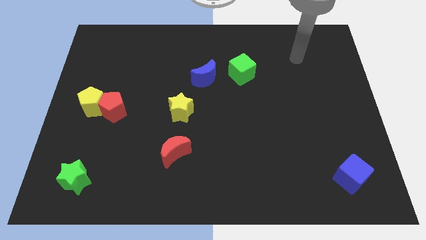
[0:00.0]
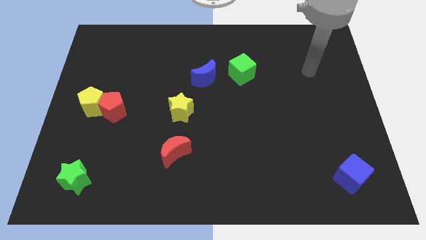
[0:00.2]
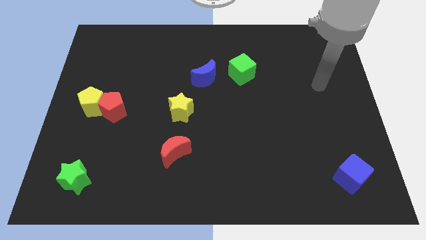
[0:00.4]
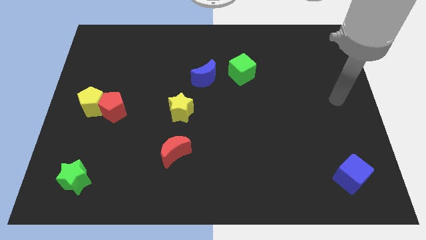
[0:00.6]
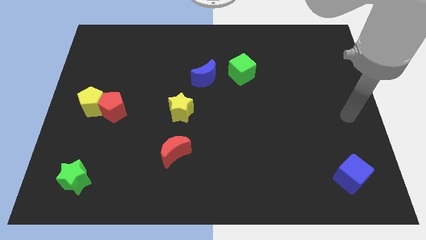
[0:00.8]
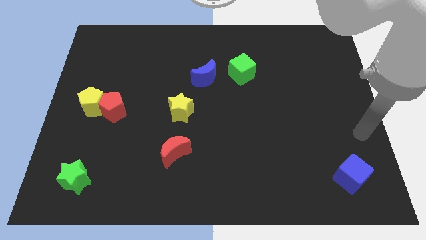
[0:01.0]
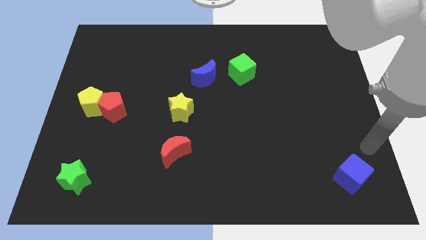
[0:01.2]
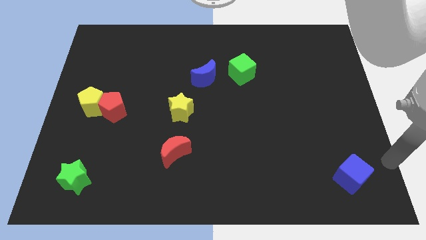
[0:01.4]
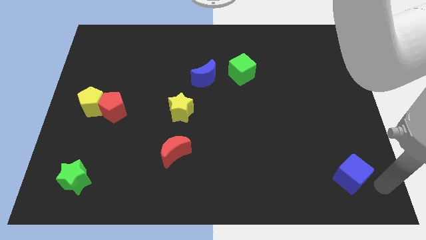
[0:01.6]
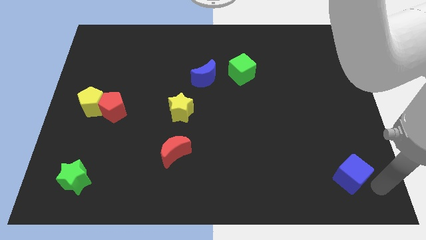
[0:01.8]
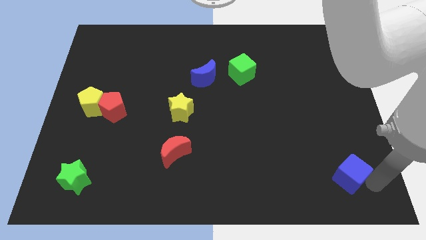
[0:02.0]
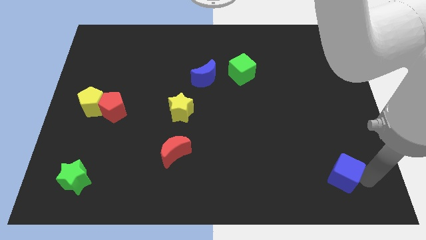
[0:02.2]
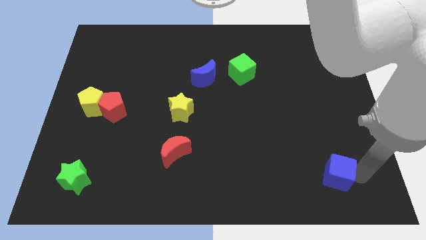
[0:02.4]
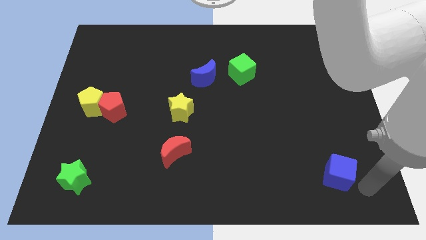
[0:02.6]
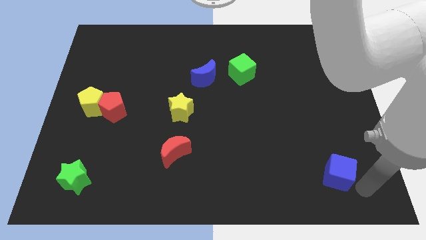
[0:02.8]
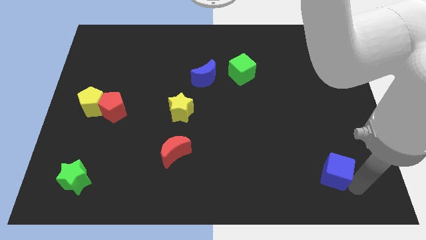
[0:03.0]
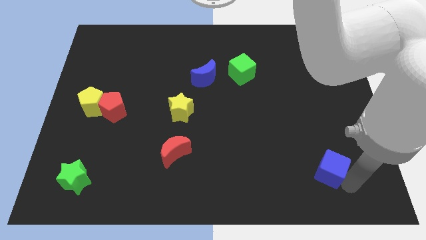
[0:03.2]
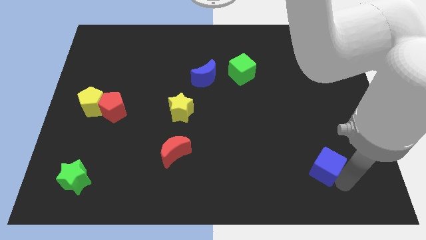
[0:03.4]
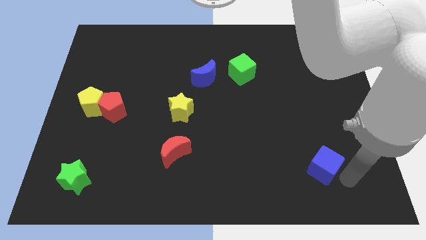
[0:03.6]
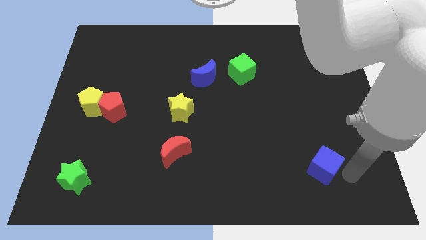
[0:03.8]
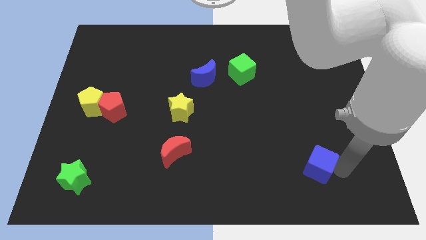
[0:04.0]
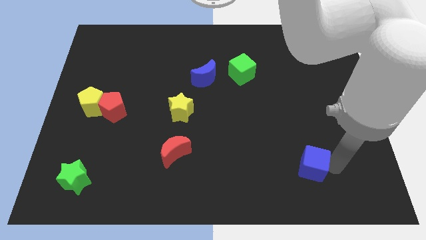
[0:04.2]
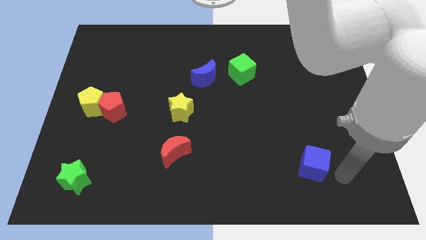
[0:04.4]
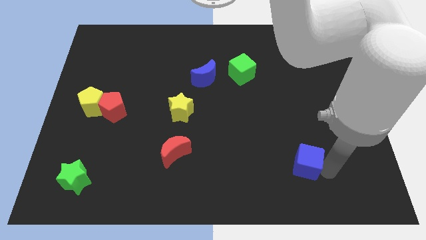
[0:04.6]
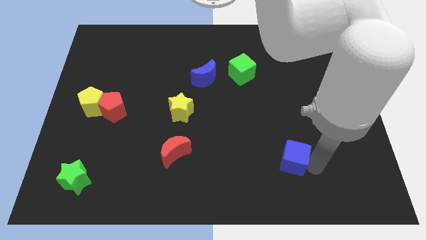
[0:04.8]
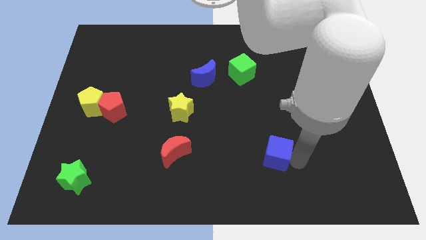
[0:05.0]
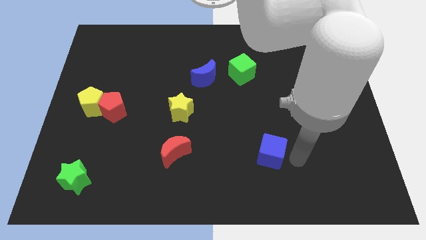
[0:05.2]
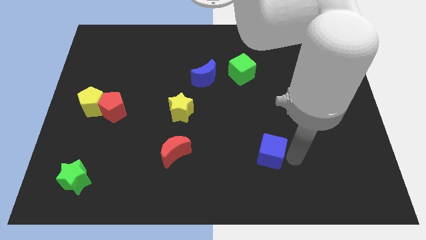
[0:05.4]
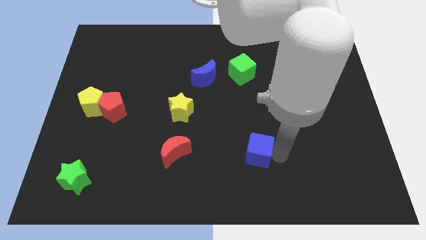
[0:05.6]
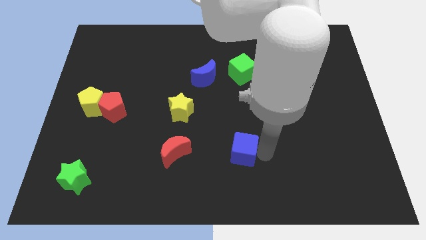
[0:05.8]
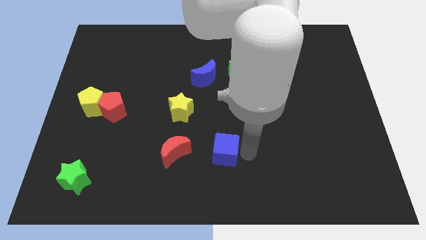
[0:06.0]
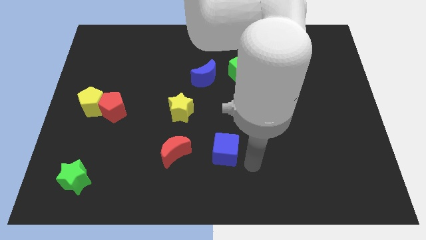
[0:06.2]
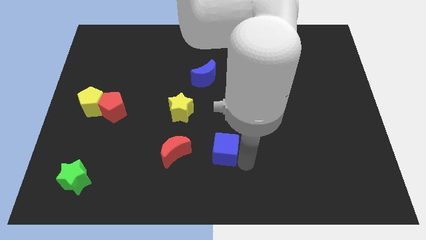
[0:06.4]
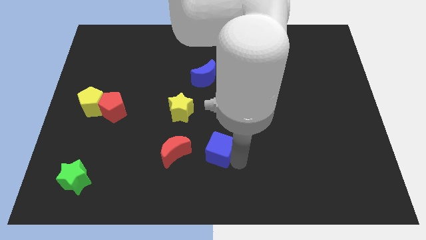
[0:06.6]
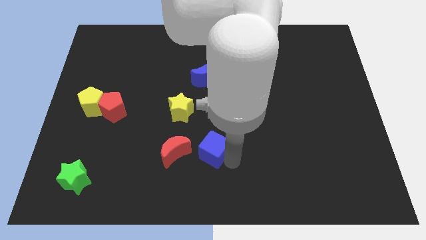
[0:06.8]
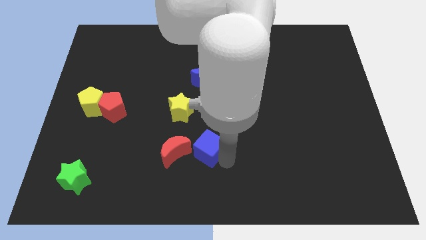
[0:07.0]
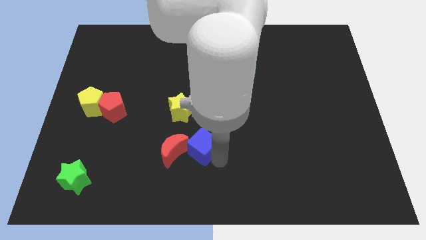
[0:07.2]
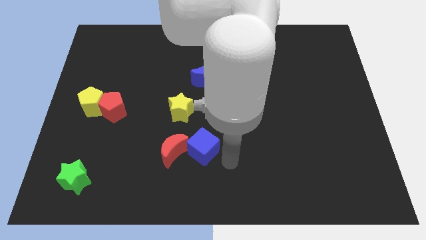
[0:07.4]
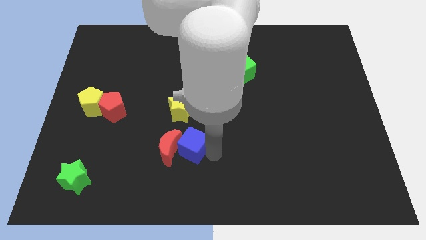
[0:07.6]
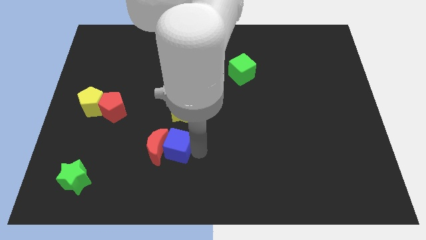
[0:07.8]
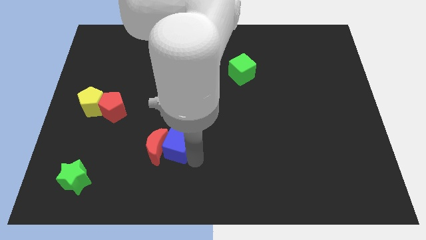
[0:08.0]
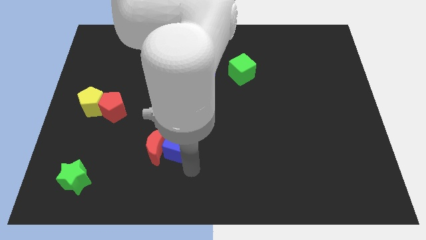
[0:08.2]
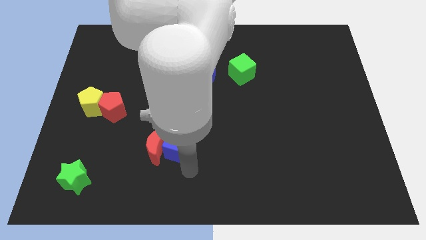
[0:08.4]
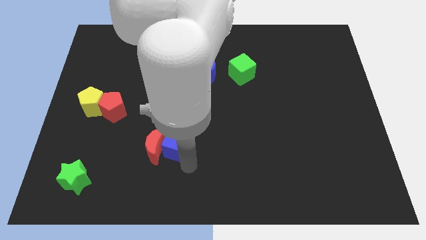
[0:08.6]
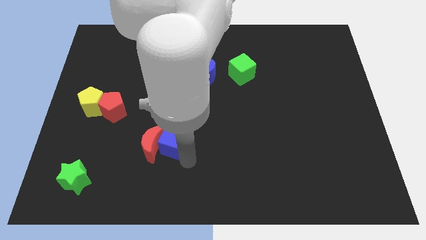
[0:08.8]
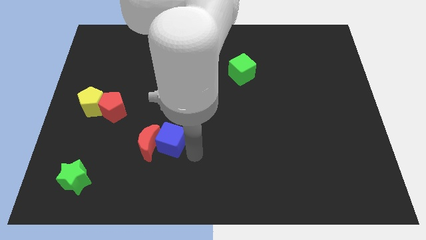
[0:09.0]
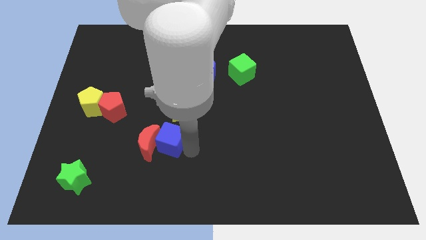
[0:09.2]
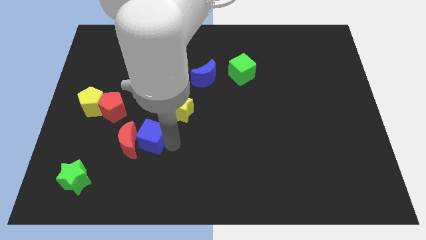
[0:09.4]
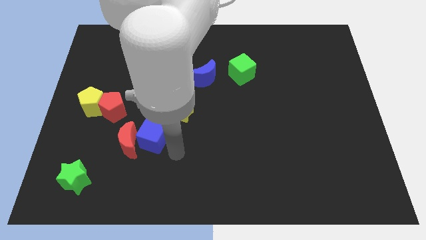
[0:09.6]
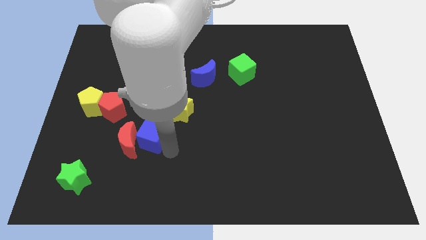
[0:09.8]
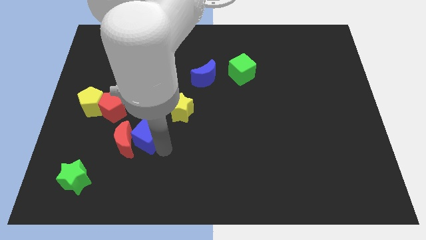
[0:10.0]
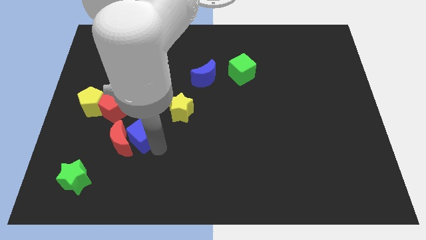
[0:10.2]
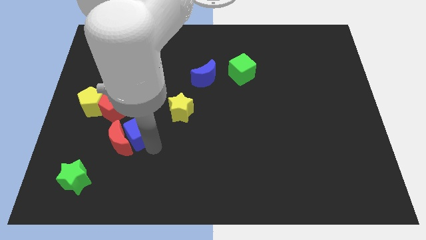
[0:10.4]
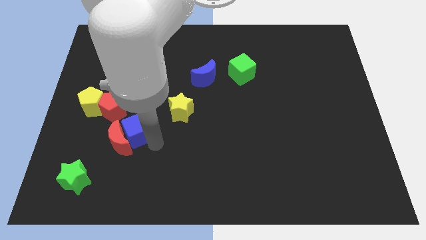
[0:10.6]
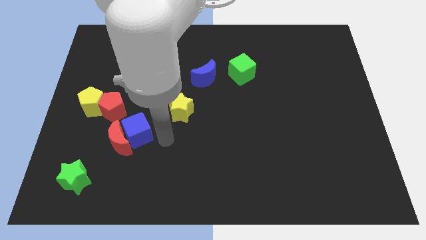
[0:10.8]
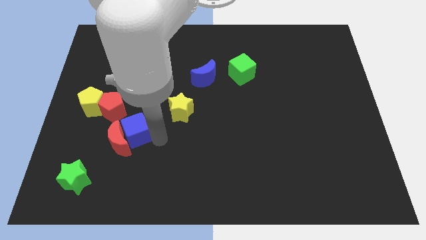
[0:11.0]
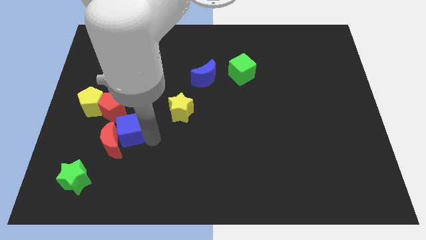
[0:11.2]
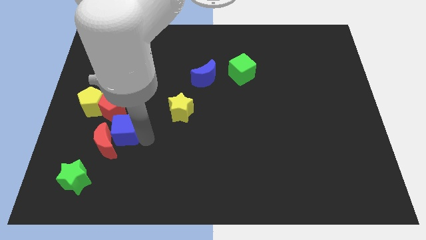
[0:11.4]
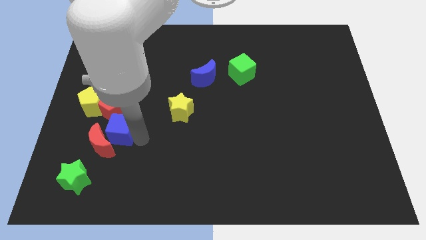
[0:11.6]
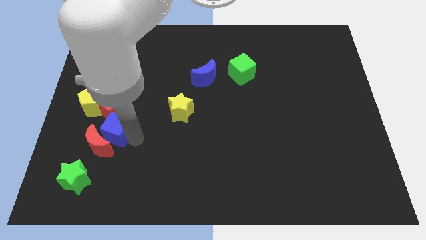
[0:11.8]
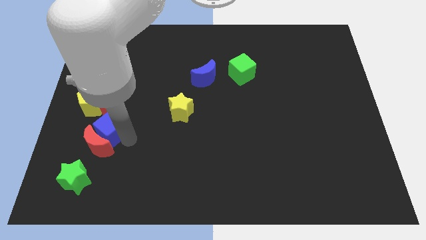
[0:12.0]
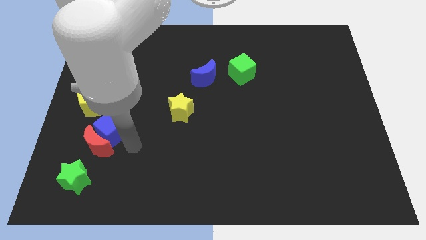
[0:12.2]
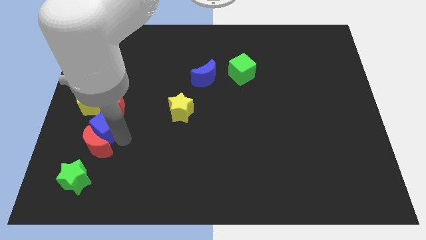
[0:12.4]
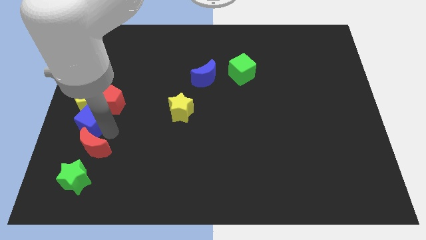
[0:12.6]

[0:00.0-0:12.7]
put the blue cube to the yellow pentagon

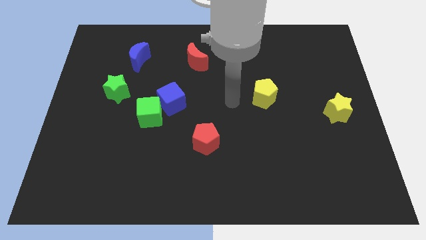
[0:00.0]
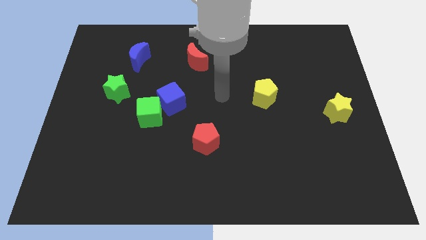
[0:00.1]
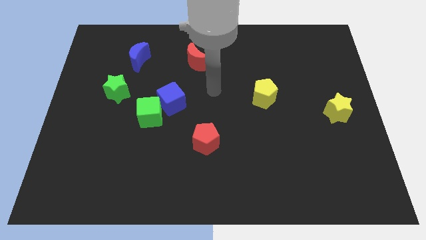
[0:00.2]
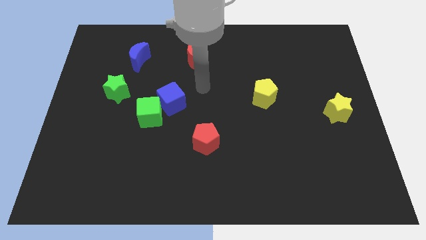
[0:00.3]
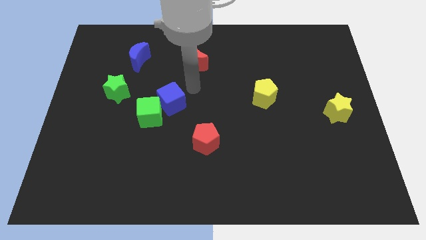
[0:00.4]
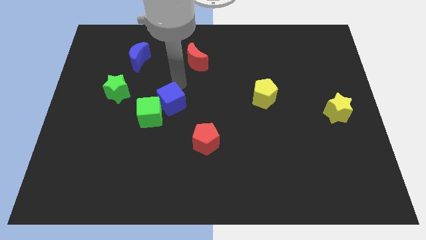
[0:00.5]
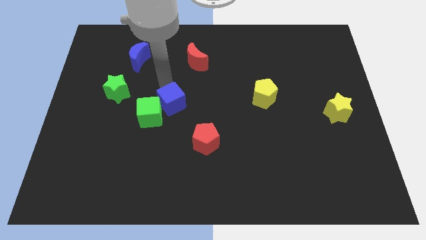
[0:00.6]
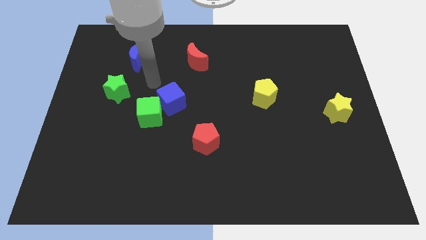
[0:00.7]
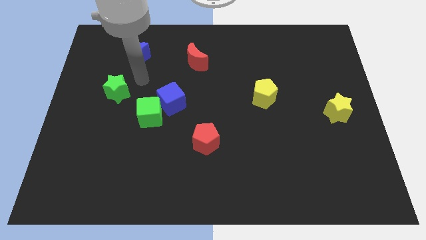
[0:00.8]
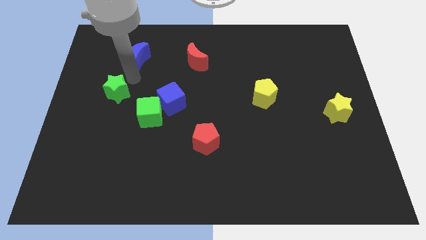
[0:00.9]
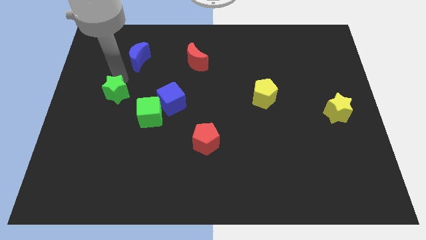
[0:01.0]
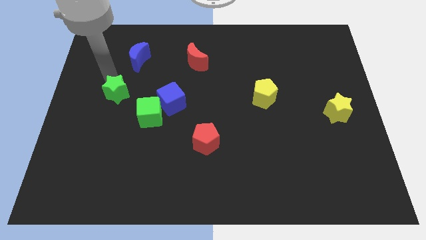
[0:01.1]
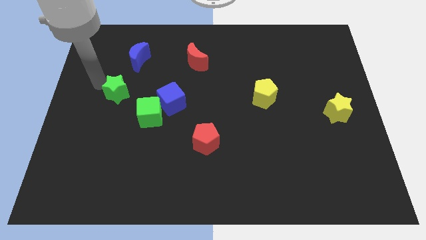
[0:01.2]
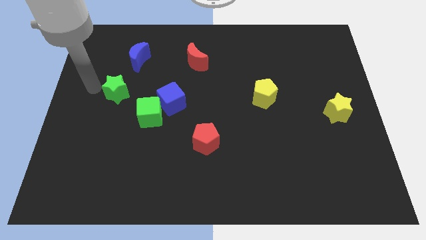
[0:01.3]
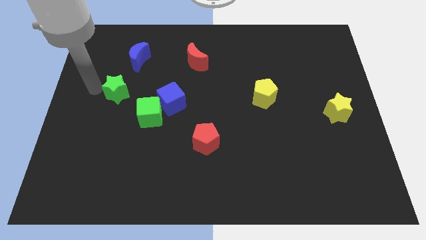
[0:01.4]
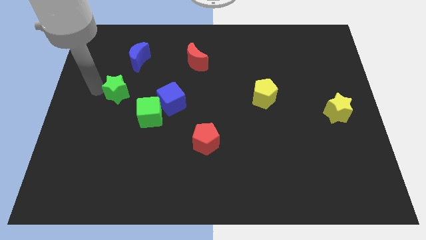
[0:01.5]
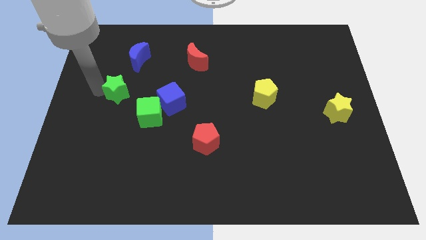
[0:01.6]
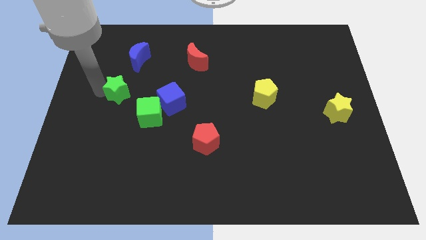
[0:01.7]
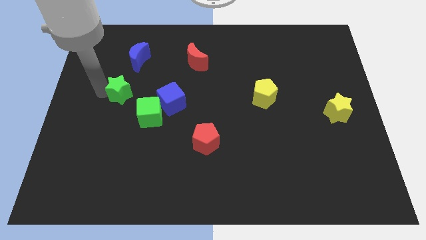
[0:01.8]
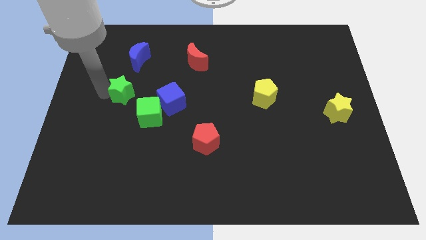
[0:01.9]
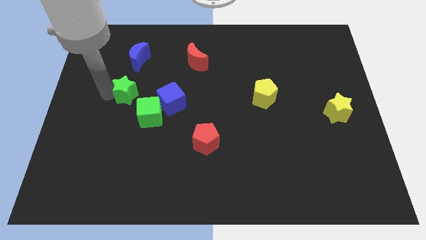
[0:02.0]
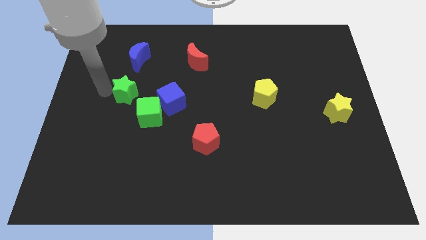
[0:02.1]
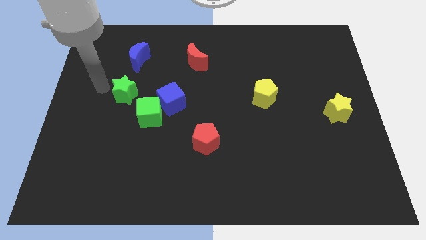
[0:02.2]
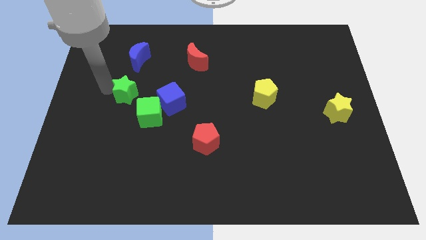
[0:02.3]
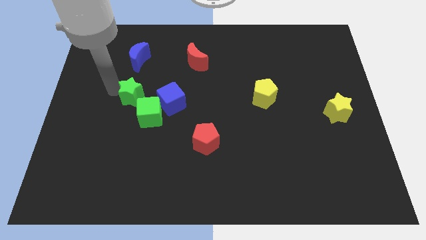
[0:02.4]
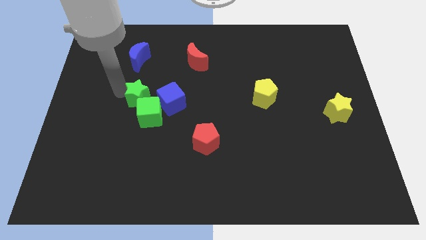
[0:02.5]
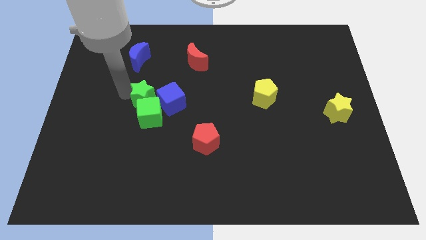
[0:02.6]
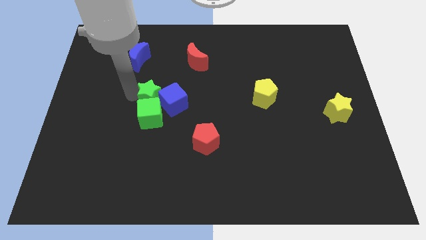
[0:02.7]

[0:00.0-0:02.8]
move the green star to the blue cube
